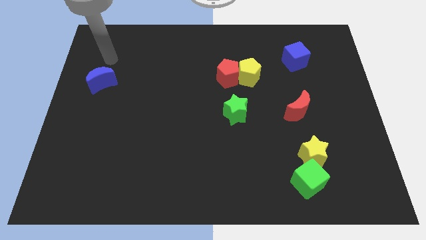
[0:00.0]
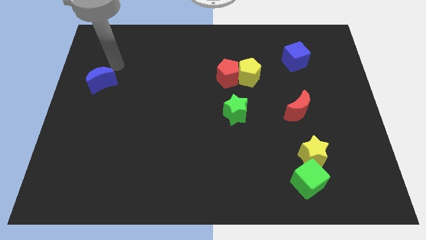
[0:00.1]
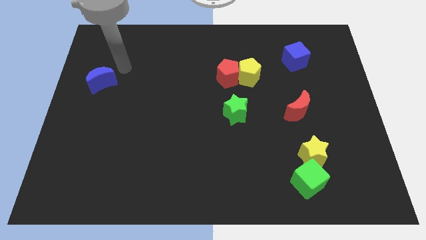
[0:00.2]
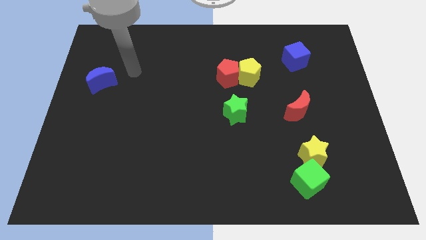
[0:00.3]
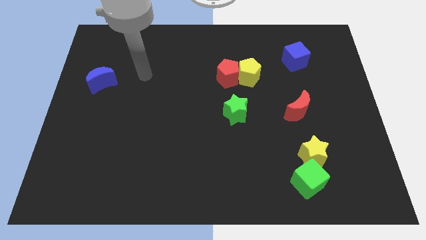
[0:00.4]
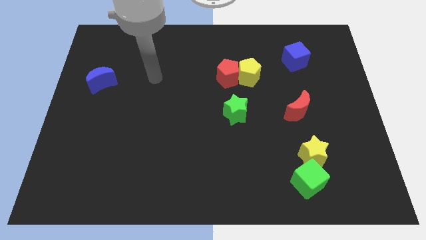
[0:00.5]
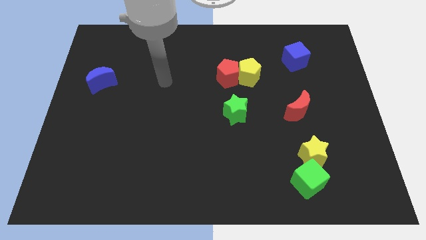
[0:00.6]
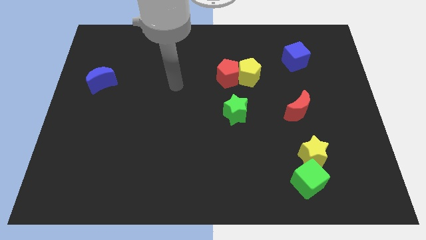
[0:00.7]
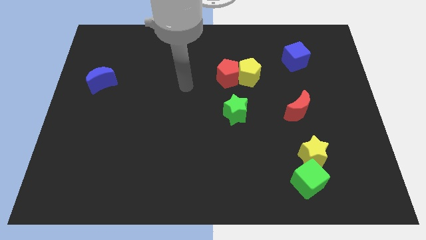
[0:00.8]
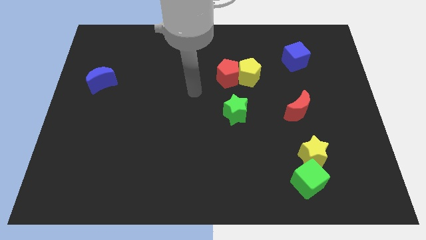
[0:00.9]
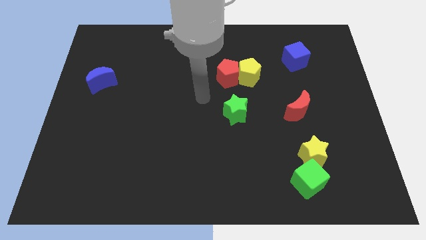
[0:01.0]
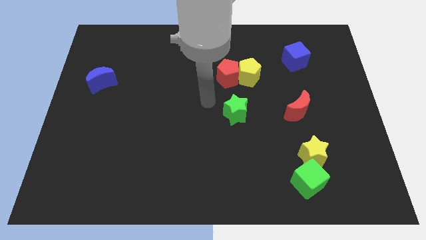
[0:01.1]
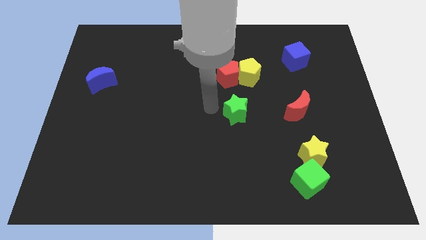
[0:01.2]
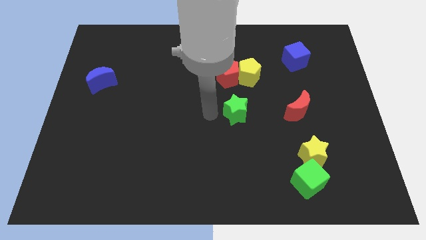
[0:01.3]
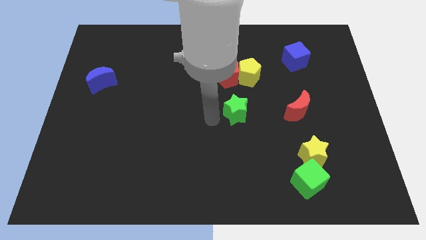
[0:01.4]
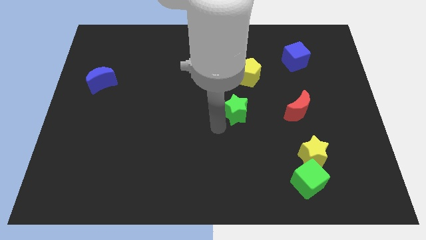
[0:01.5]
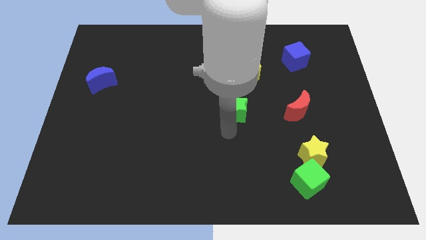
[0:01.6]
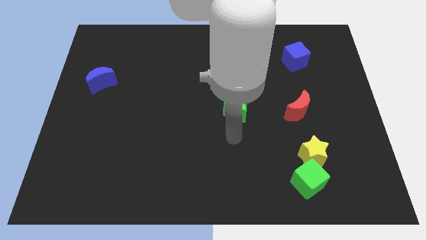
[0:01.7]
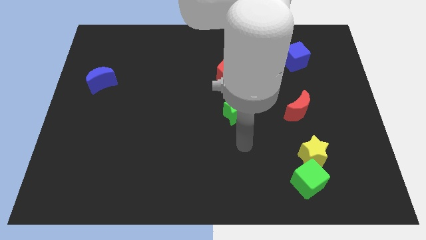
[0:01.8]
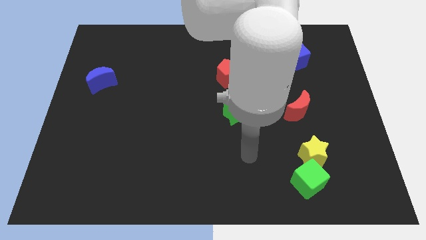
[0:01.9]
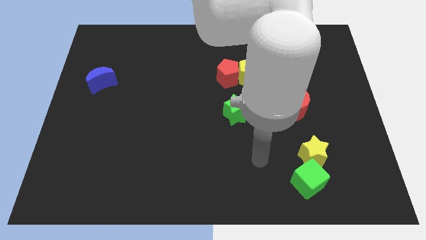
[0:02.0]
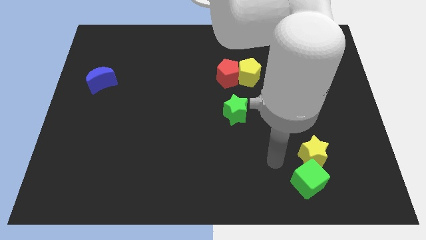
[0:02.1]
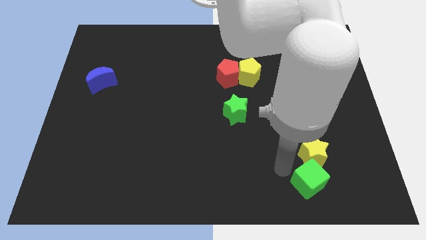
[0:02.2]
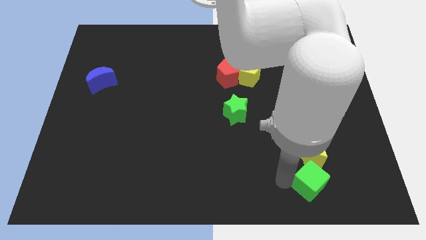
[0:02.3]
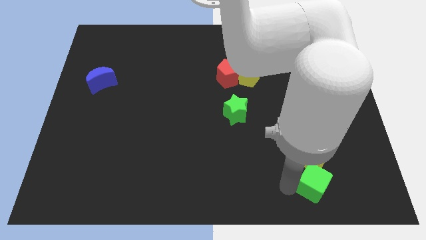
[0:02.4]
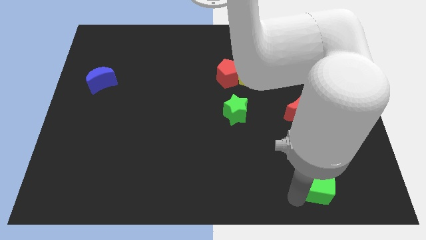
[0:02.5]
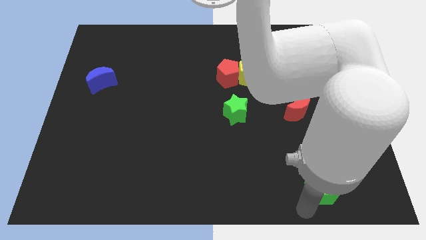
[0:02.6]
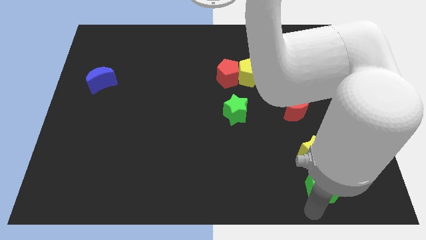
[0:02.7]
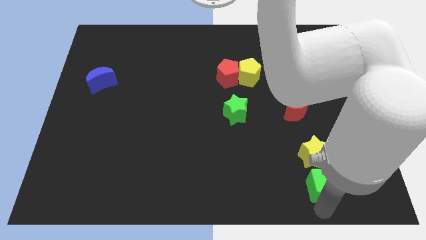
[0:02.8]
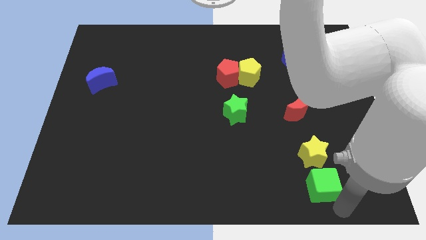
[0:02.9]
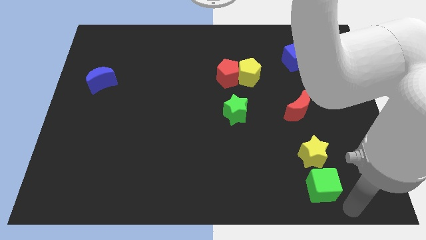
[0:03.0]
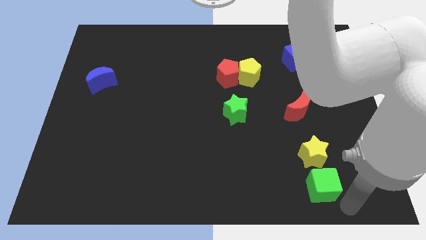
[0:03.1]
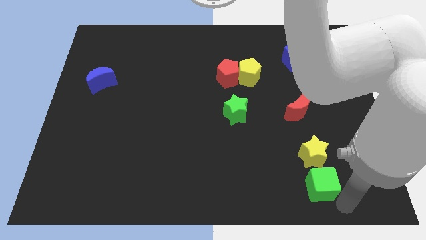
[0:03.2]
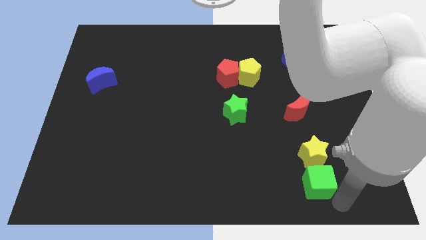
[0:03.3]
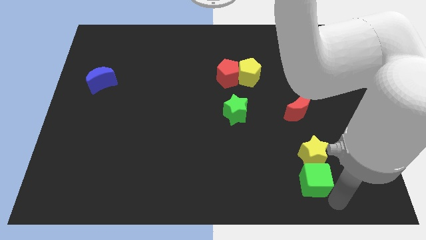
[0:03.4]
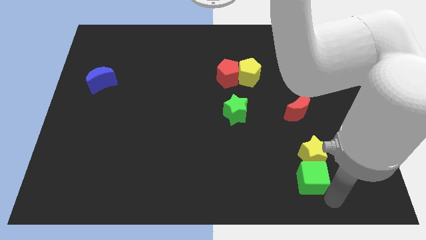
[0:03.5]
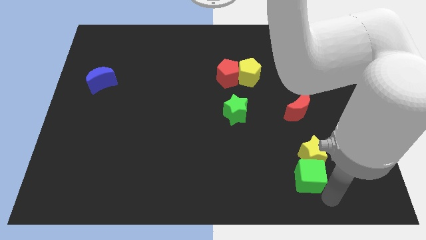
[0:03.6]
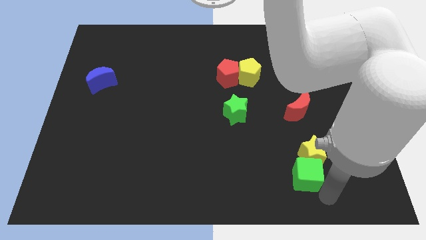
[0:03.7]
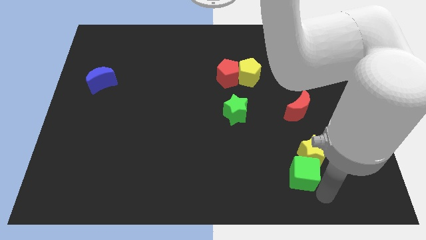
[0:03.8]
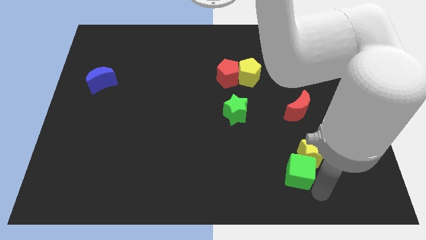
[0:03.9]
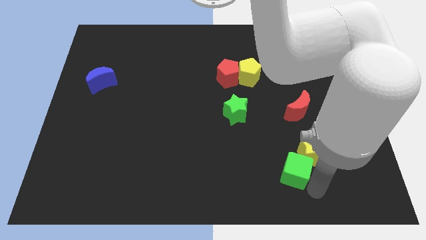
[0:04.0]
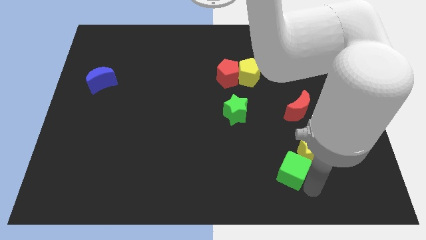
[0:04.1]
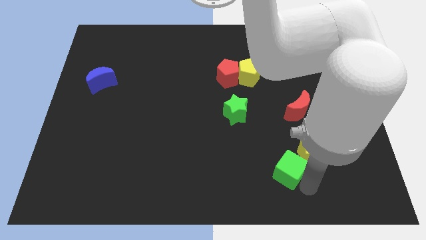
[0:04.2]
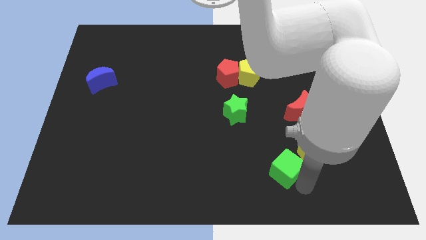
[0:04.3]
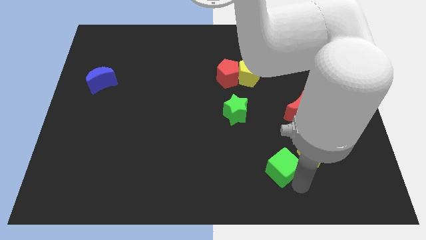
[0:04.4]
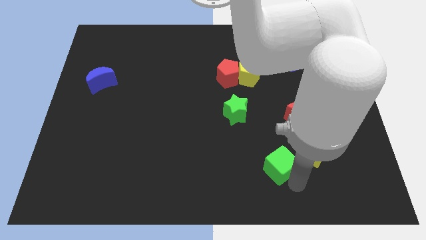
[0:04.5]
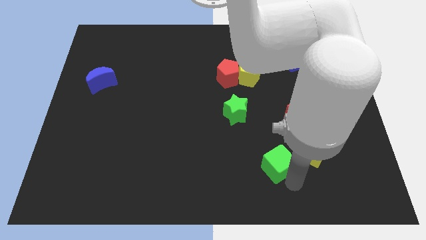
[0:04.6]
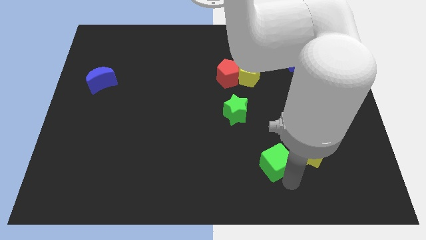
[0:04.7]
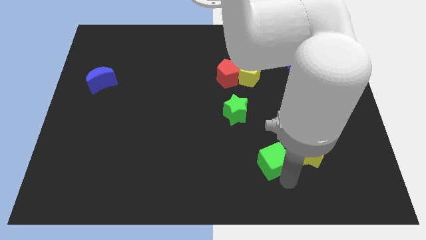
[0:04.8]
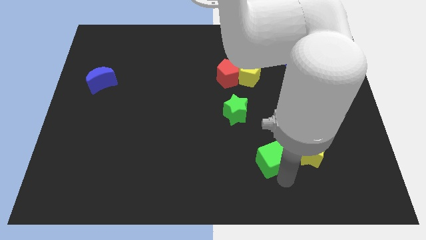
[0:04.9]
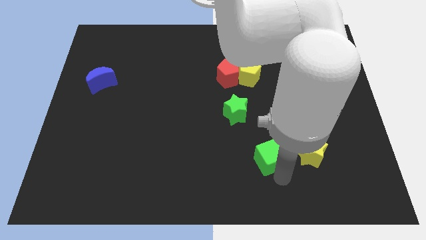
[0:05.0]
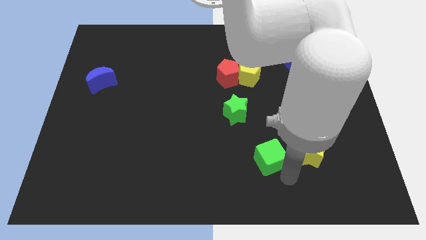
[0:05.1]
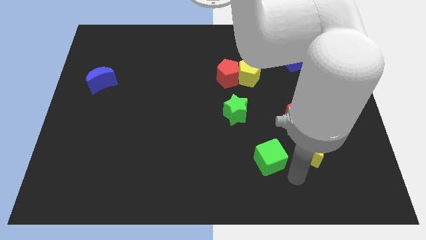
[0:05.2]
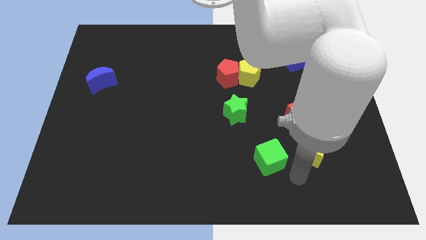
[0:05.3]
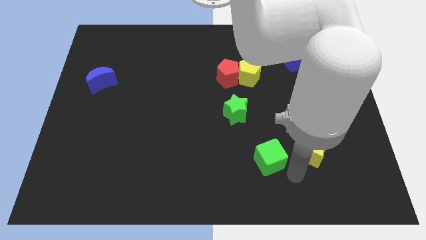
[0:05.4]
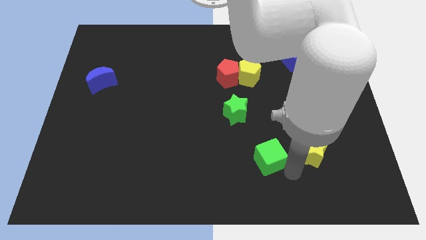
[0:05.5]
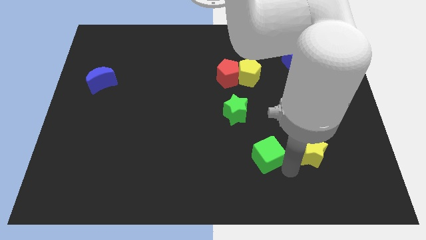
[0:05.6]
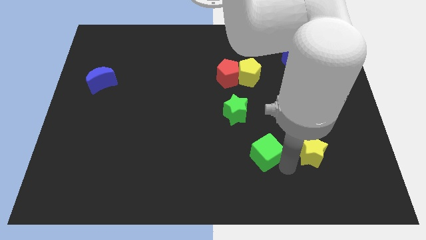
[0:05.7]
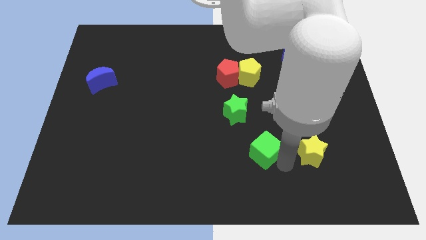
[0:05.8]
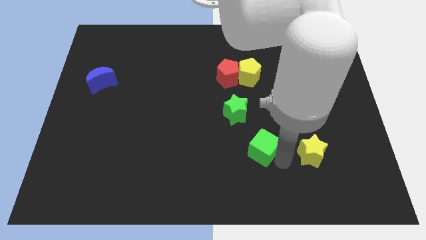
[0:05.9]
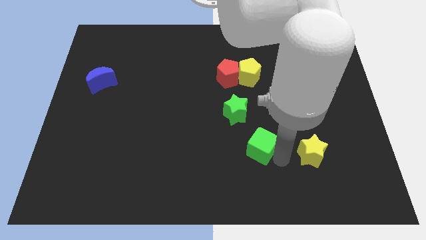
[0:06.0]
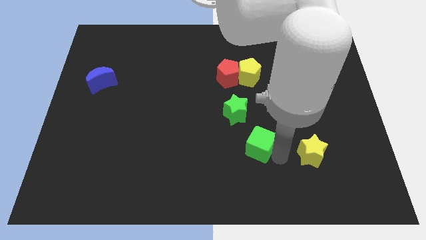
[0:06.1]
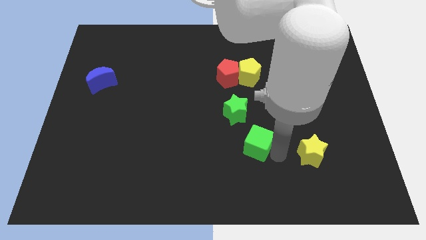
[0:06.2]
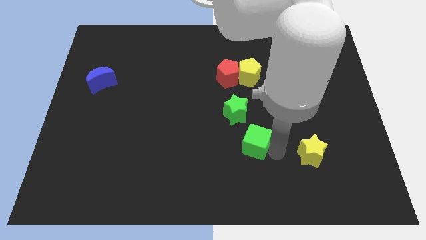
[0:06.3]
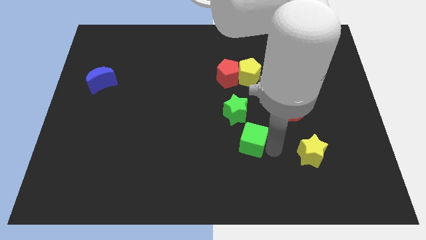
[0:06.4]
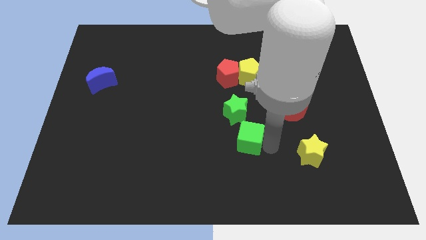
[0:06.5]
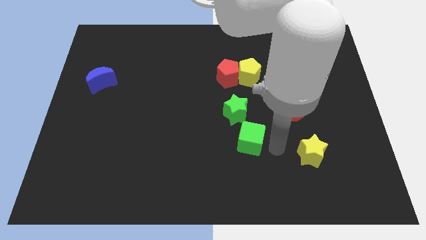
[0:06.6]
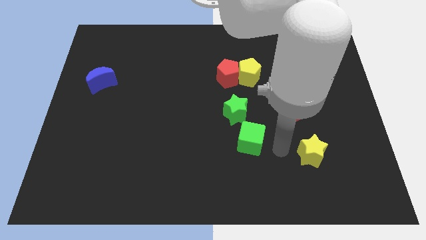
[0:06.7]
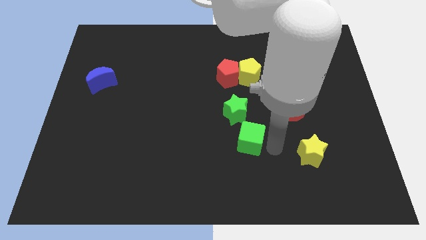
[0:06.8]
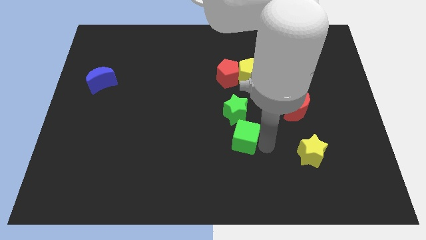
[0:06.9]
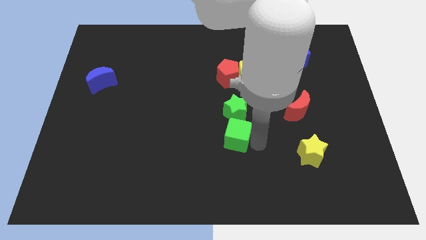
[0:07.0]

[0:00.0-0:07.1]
slide the green cube to the center of the board
